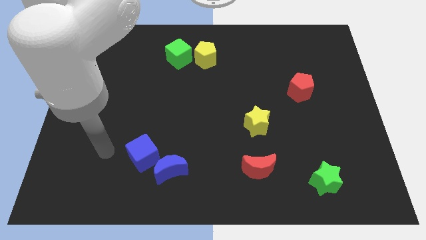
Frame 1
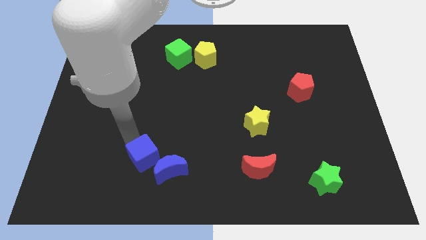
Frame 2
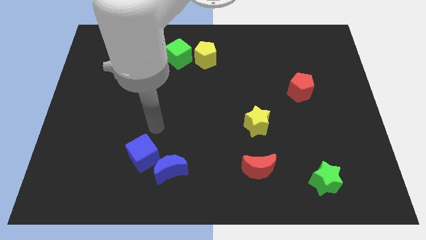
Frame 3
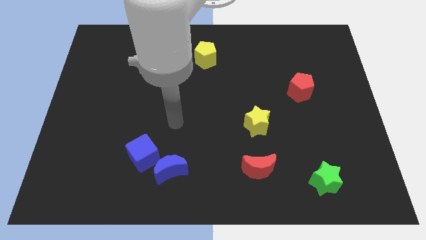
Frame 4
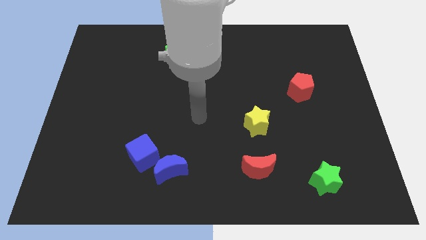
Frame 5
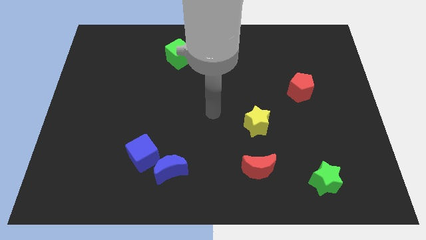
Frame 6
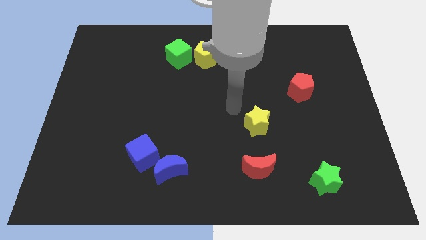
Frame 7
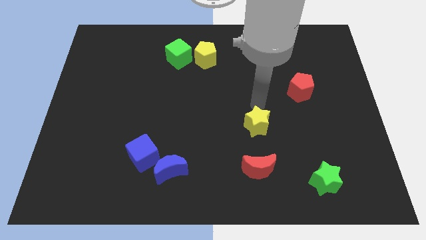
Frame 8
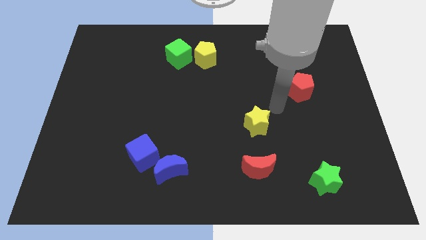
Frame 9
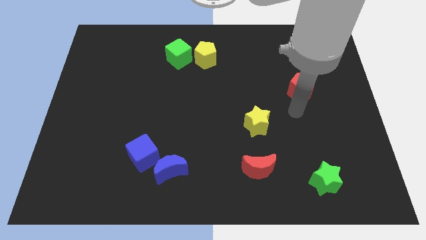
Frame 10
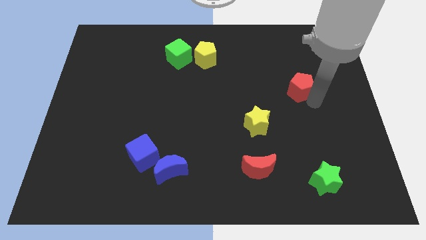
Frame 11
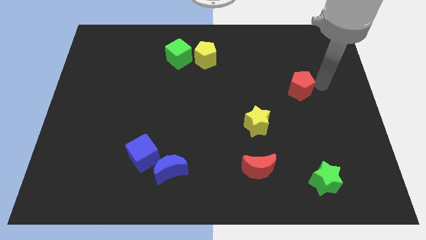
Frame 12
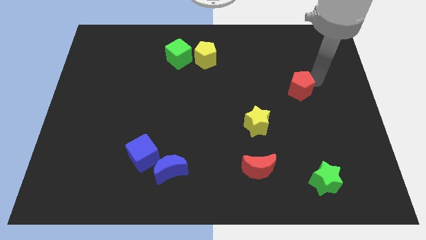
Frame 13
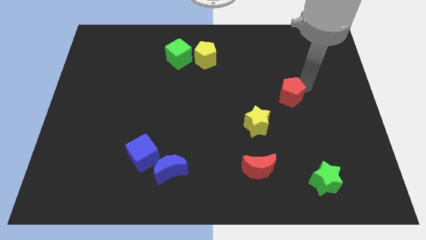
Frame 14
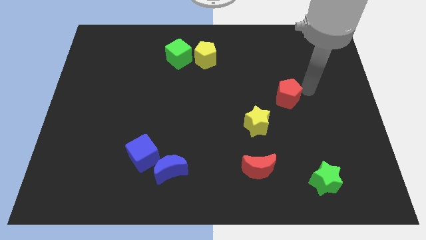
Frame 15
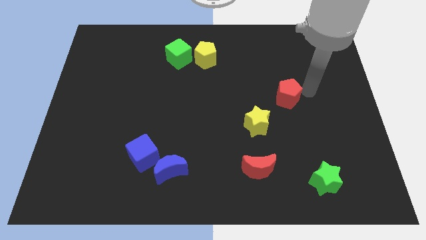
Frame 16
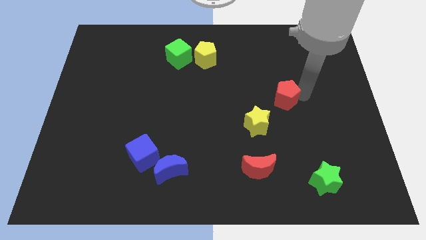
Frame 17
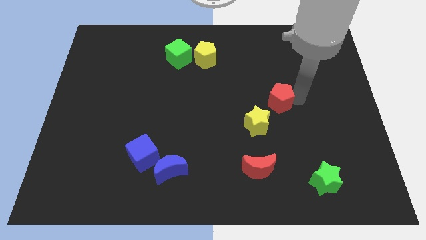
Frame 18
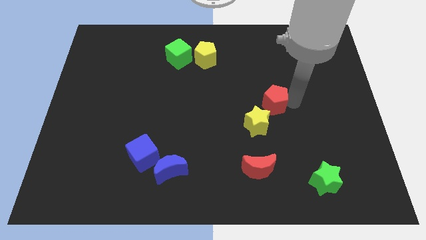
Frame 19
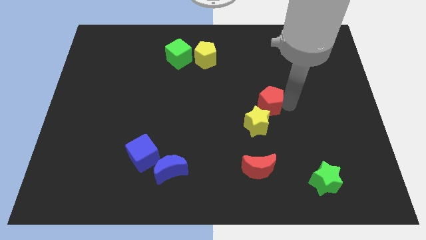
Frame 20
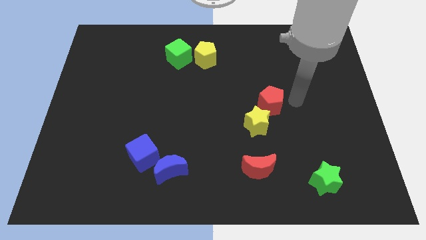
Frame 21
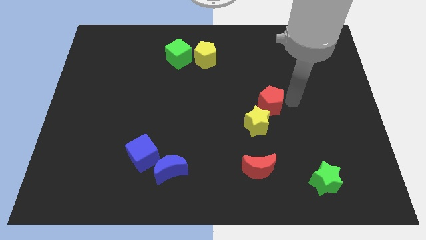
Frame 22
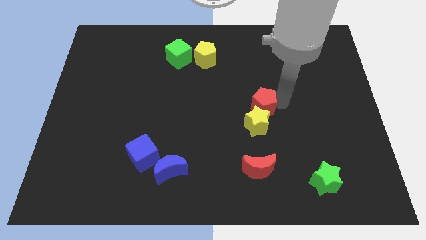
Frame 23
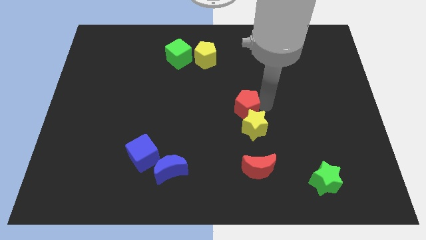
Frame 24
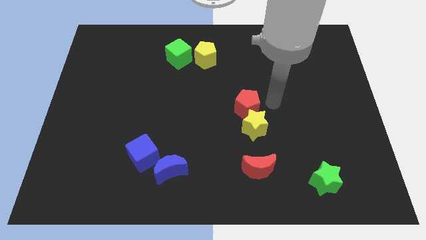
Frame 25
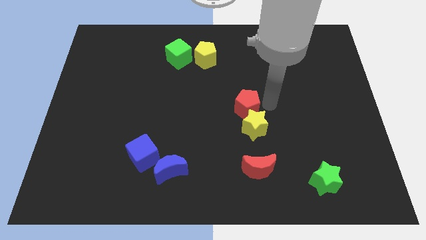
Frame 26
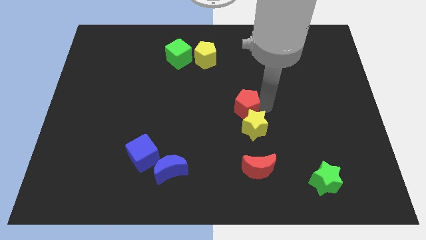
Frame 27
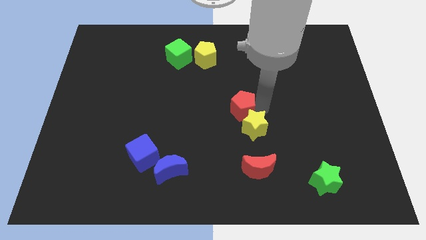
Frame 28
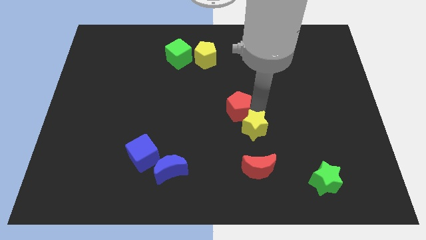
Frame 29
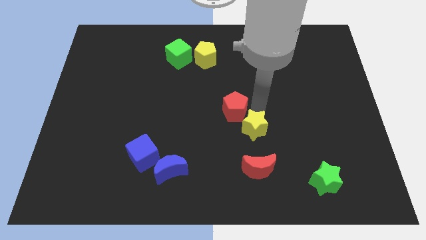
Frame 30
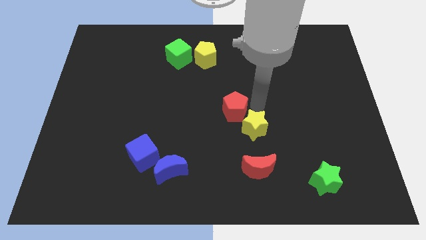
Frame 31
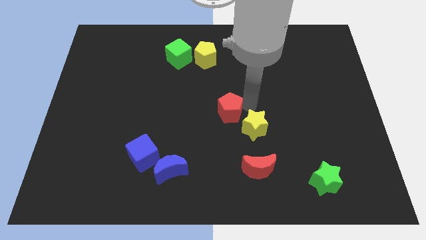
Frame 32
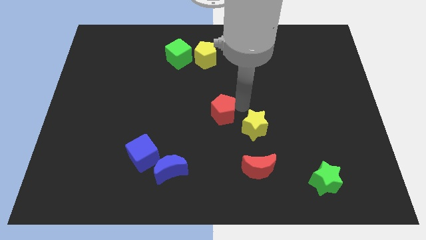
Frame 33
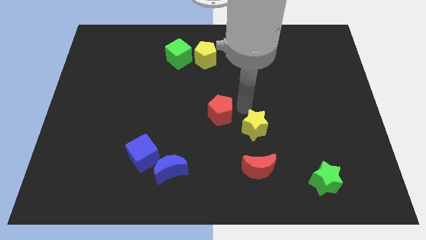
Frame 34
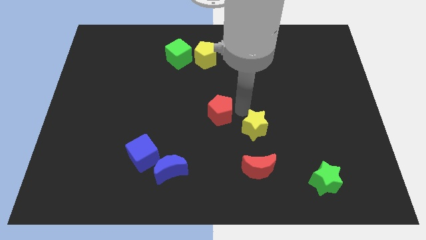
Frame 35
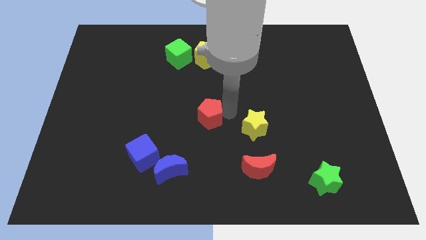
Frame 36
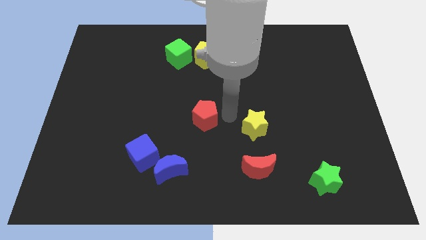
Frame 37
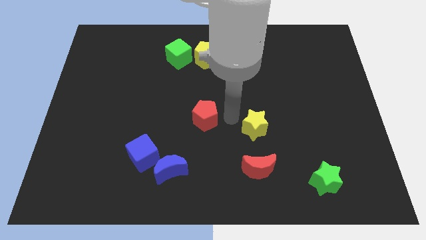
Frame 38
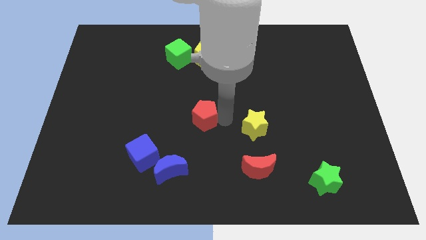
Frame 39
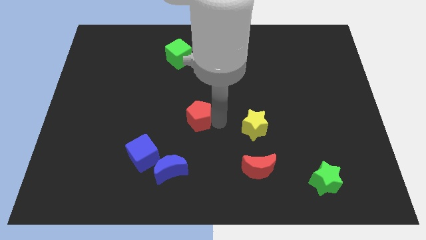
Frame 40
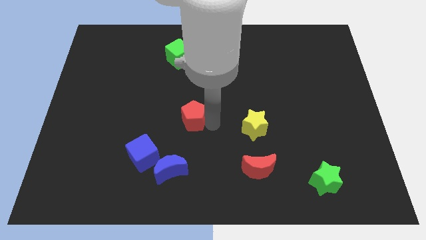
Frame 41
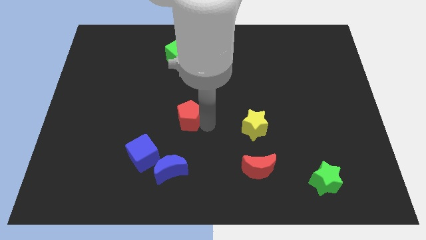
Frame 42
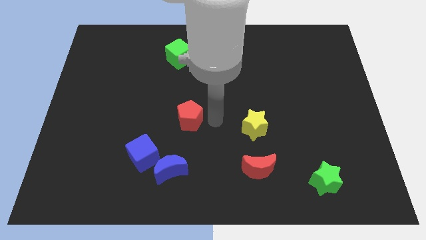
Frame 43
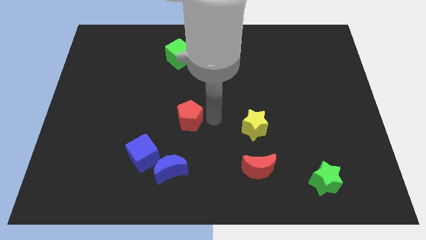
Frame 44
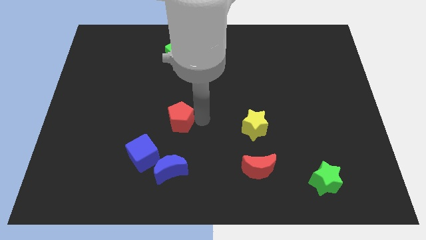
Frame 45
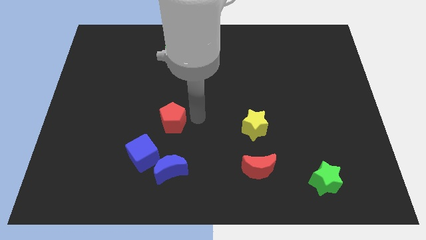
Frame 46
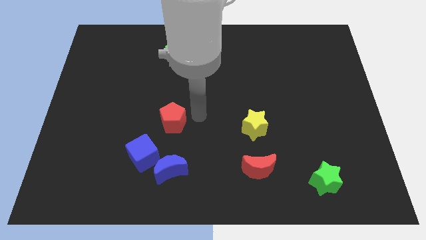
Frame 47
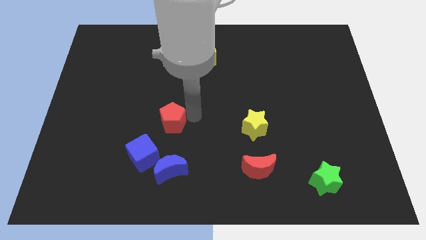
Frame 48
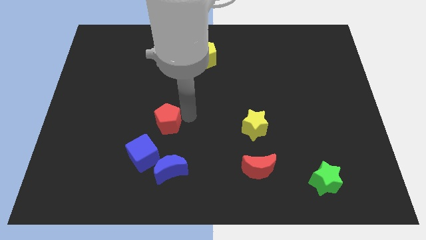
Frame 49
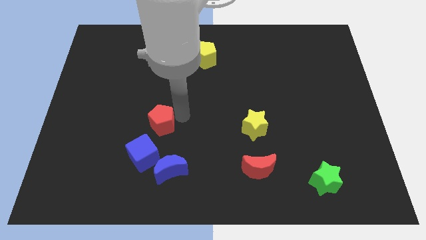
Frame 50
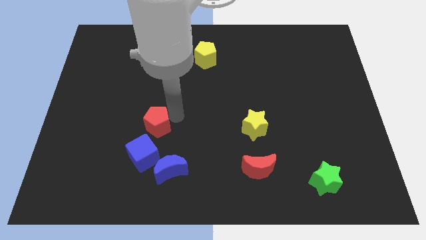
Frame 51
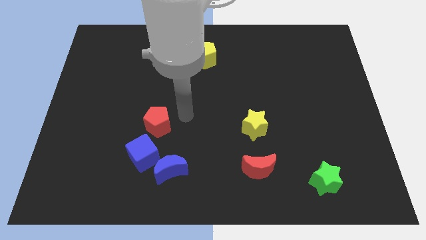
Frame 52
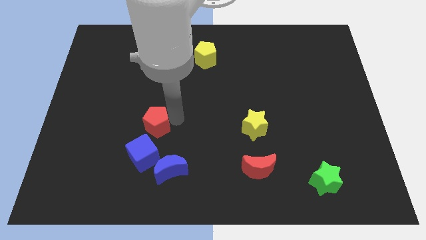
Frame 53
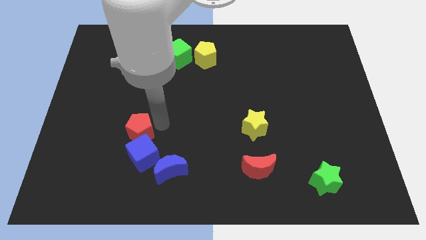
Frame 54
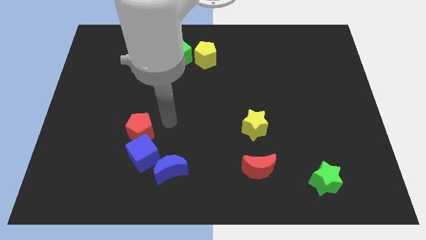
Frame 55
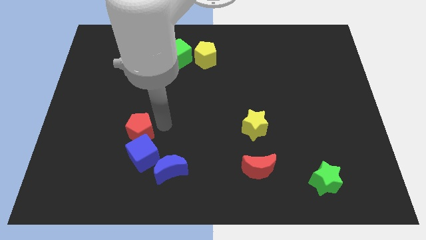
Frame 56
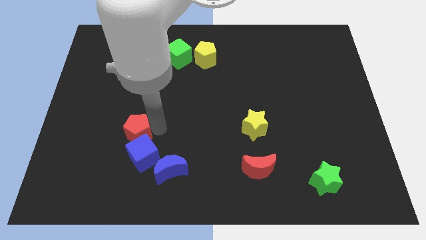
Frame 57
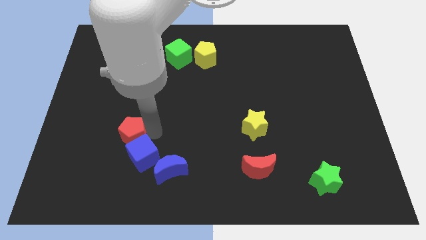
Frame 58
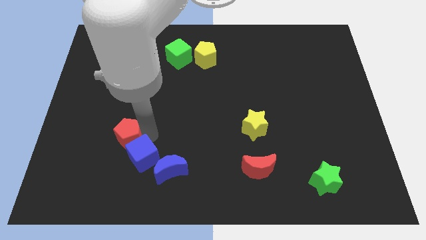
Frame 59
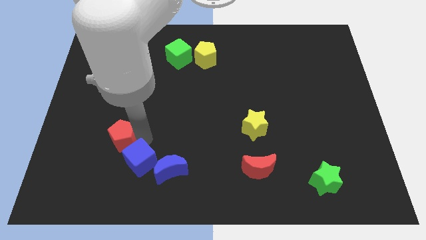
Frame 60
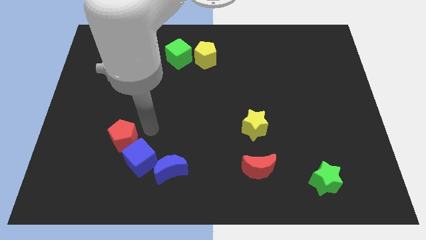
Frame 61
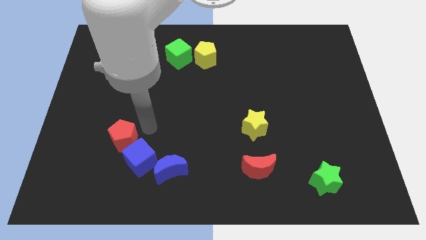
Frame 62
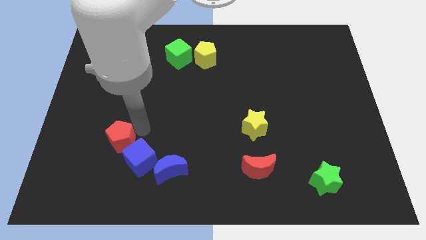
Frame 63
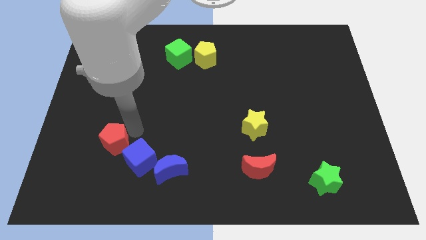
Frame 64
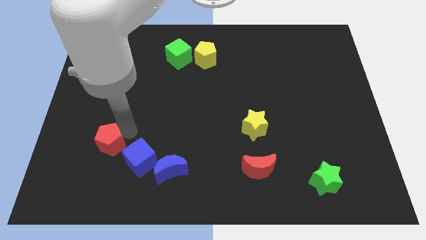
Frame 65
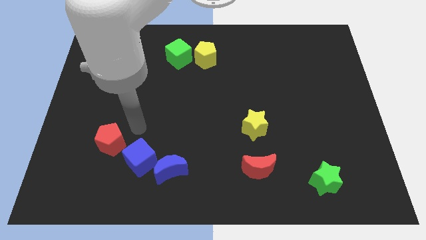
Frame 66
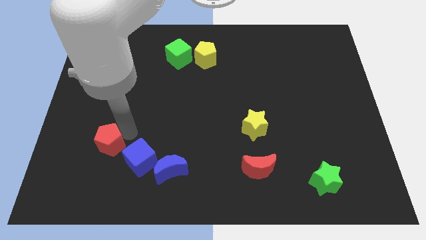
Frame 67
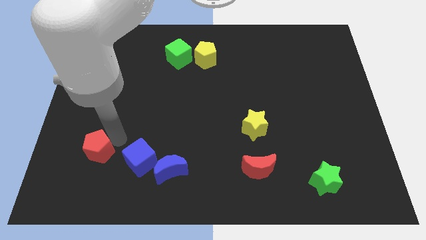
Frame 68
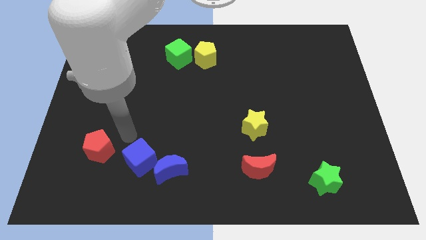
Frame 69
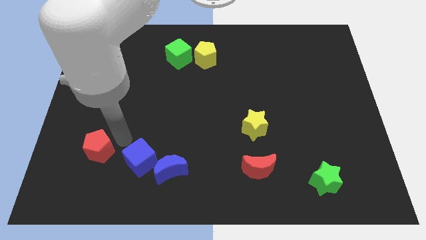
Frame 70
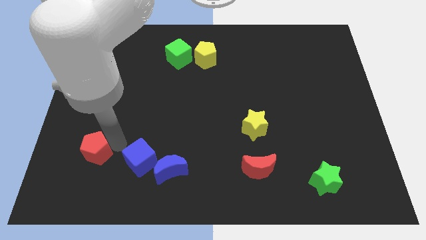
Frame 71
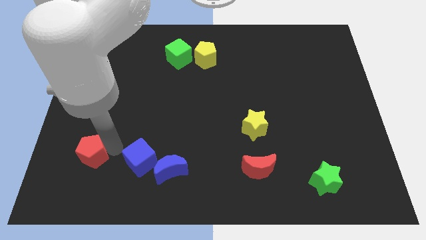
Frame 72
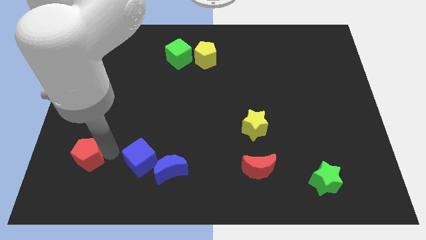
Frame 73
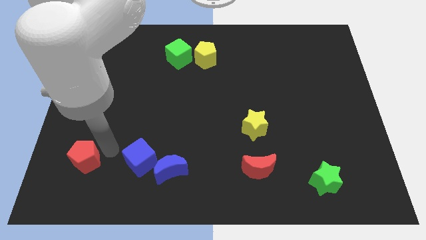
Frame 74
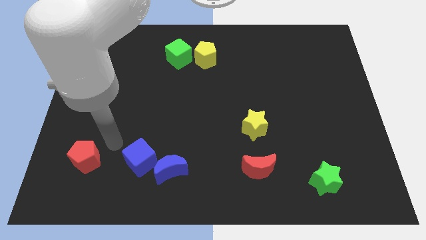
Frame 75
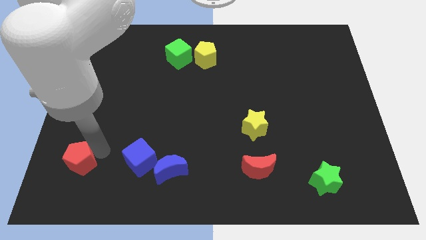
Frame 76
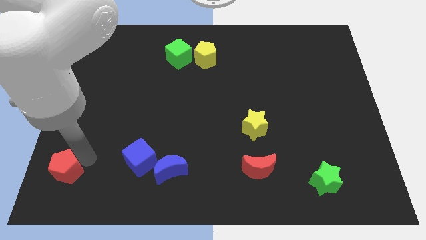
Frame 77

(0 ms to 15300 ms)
slide the red pentagon to the bottom left of the board
